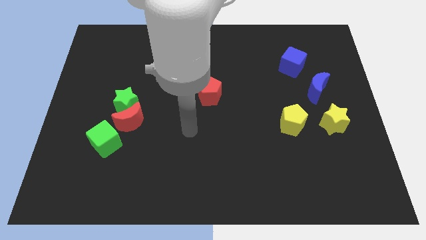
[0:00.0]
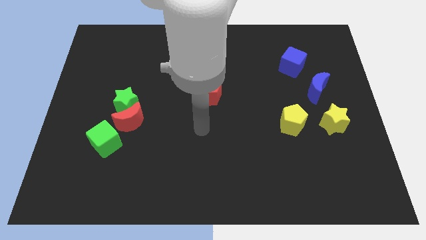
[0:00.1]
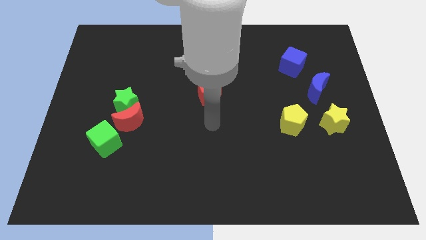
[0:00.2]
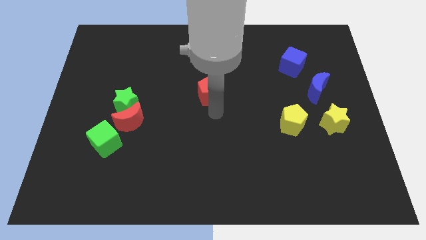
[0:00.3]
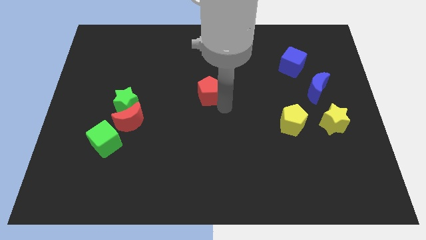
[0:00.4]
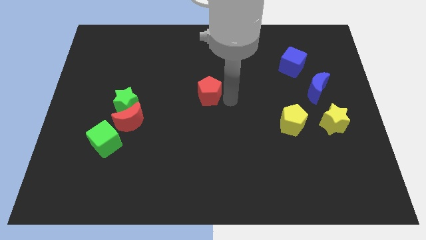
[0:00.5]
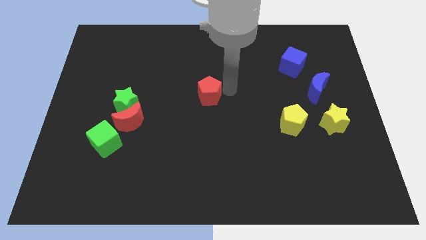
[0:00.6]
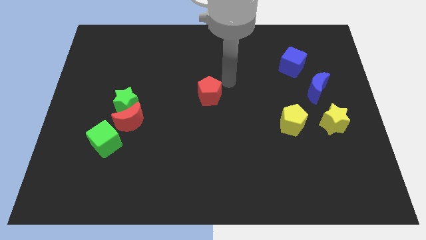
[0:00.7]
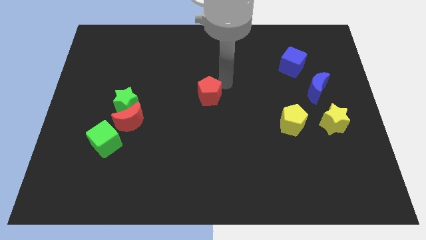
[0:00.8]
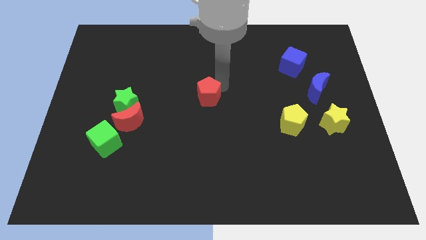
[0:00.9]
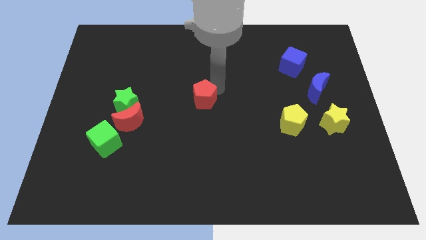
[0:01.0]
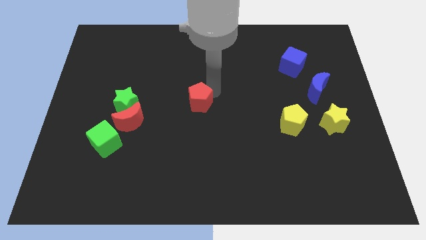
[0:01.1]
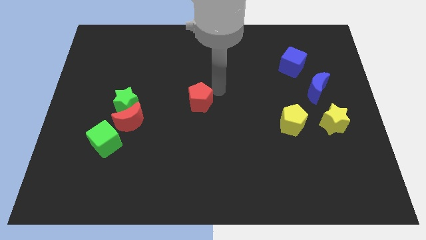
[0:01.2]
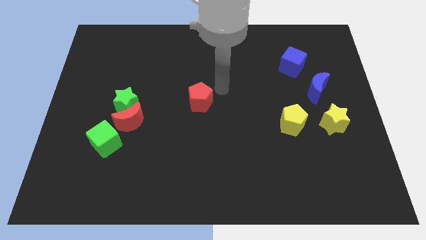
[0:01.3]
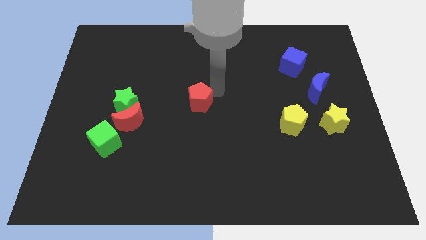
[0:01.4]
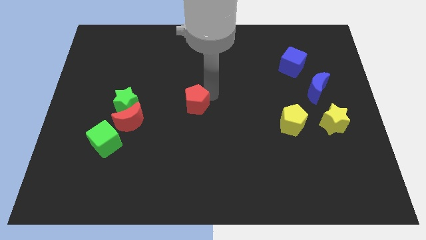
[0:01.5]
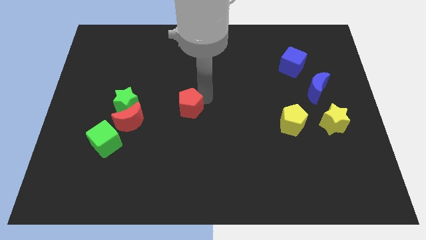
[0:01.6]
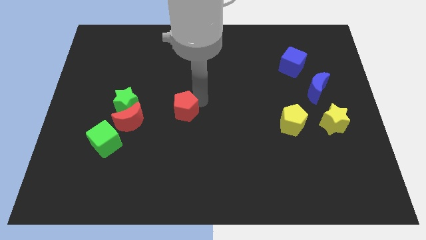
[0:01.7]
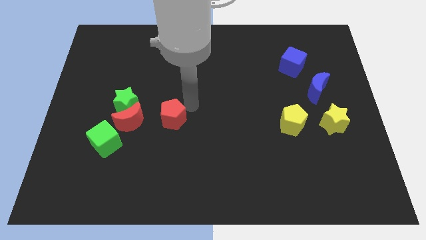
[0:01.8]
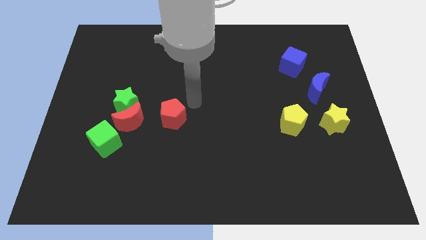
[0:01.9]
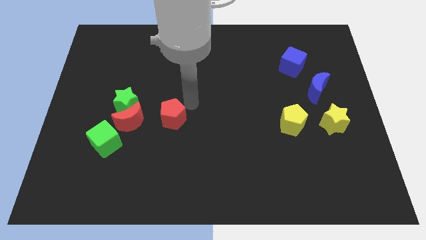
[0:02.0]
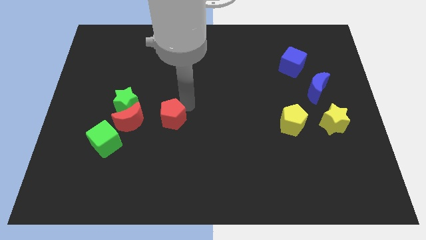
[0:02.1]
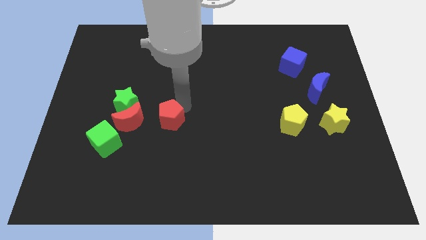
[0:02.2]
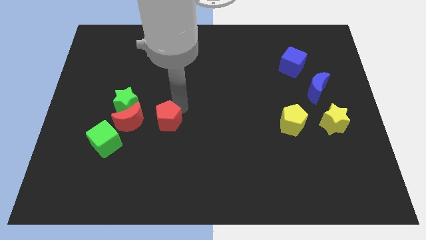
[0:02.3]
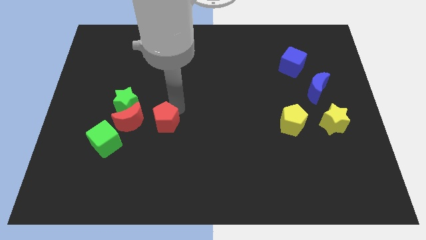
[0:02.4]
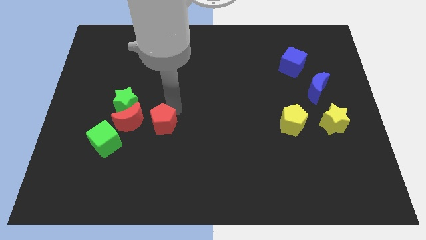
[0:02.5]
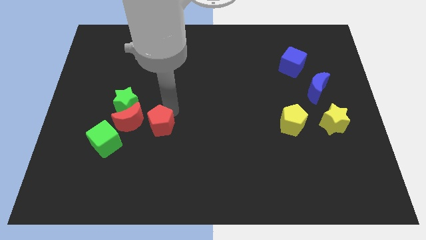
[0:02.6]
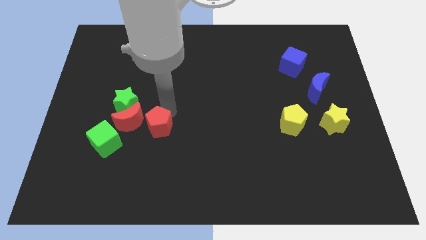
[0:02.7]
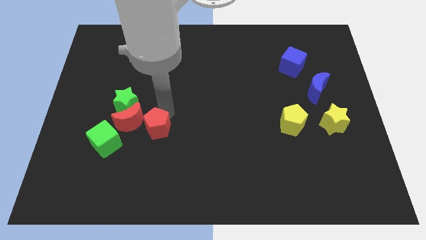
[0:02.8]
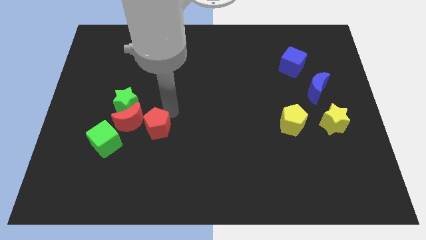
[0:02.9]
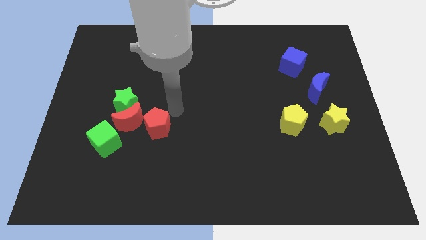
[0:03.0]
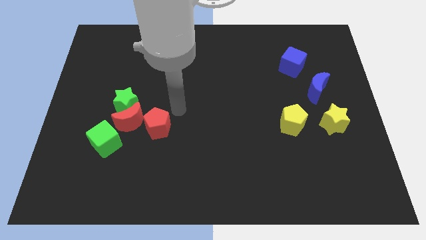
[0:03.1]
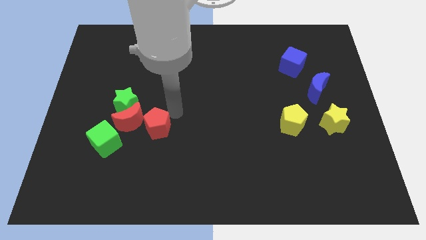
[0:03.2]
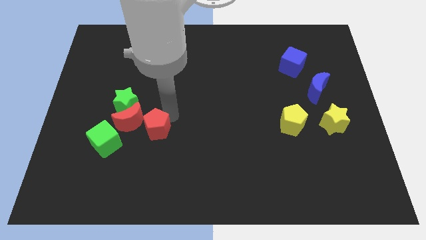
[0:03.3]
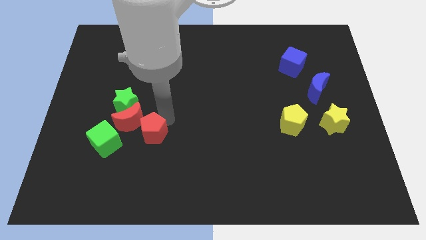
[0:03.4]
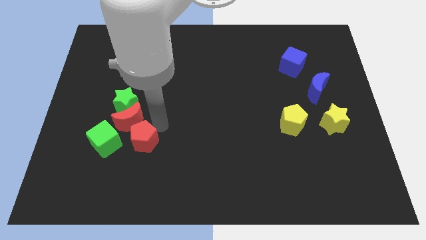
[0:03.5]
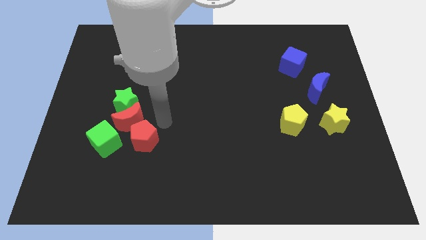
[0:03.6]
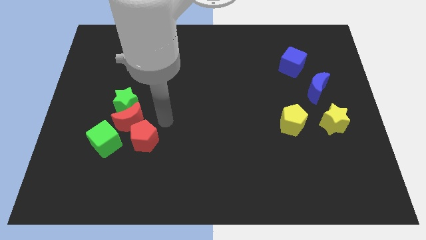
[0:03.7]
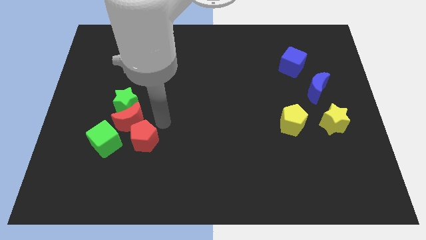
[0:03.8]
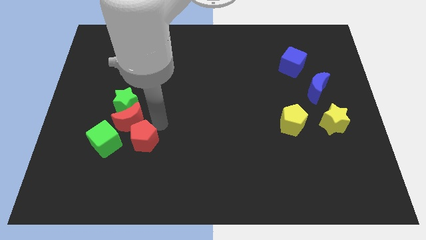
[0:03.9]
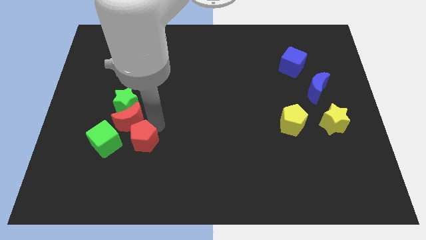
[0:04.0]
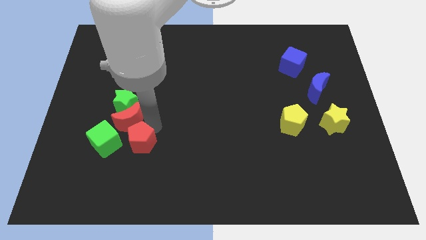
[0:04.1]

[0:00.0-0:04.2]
slide the red pentagon down and to the left diagonally

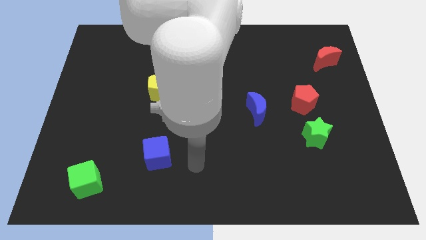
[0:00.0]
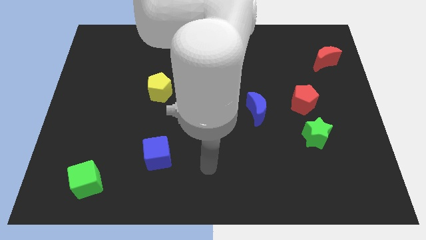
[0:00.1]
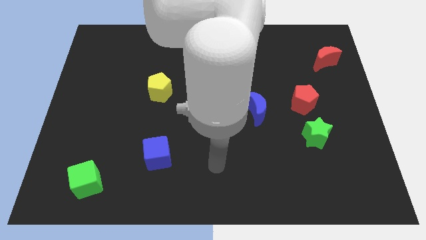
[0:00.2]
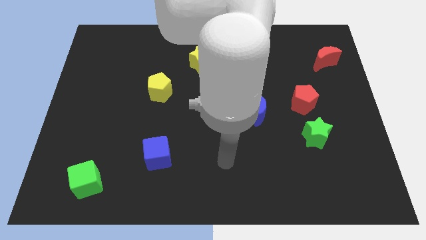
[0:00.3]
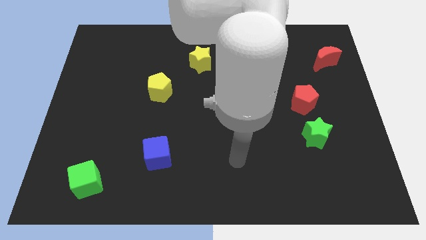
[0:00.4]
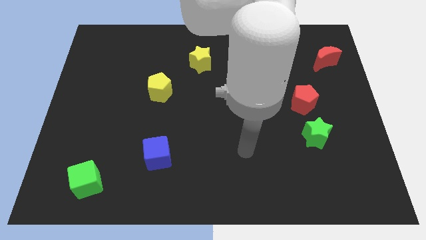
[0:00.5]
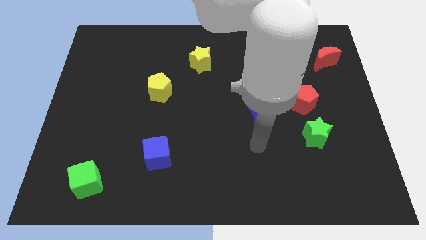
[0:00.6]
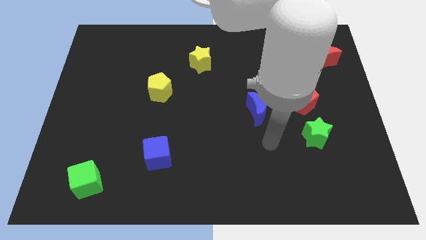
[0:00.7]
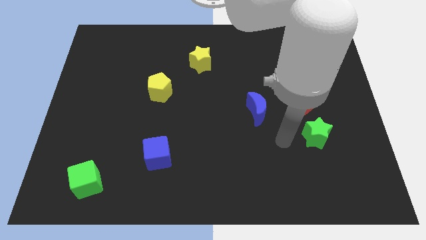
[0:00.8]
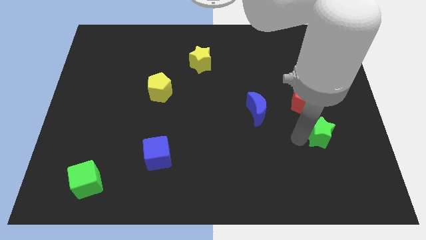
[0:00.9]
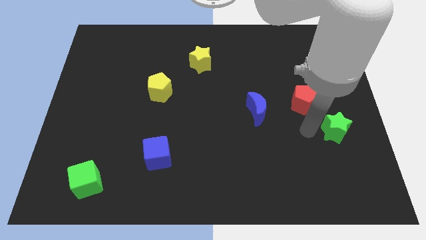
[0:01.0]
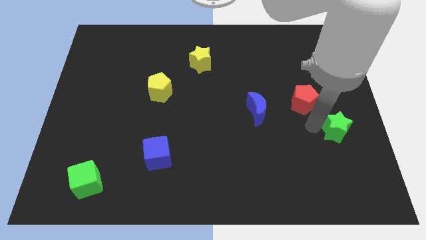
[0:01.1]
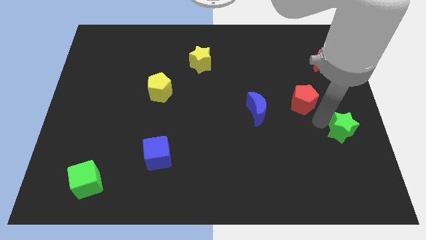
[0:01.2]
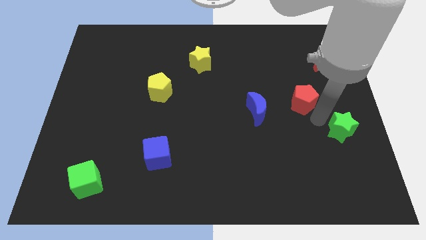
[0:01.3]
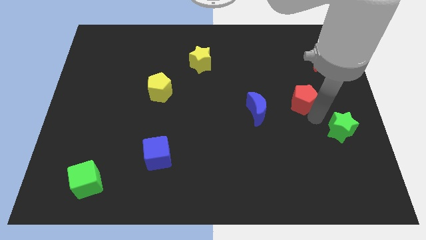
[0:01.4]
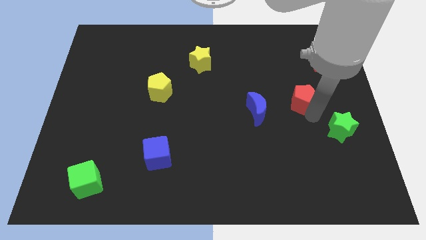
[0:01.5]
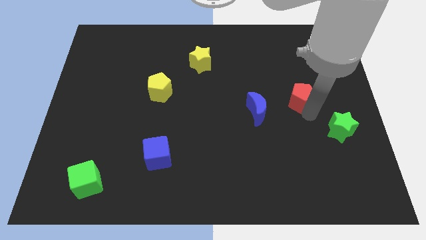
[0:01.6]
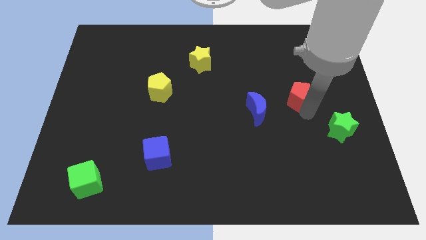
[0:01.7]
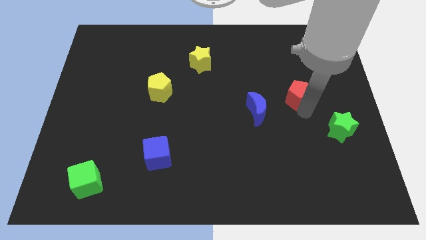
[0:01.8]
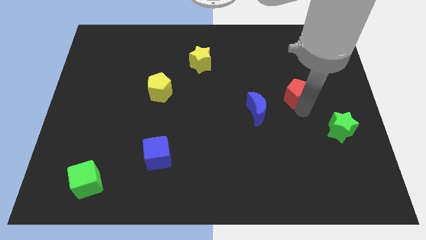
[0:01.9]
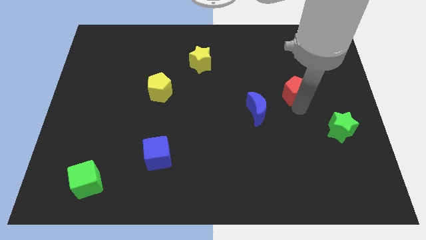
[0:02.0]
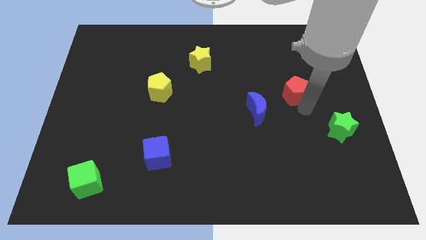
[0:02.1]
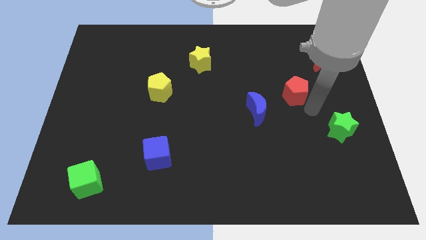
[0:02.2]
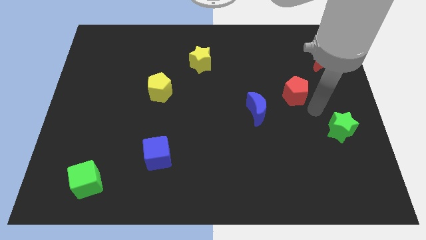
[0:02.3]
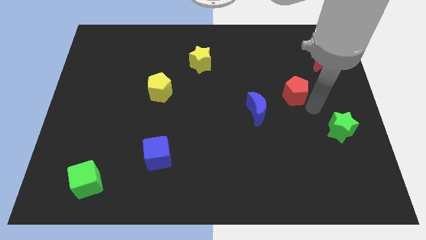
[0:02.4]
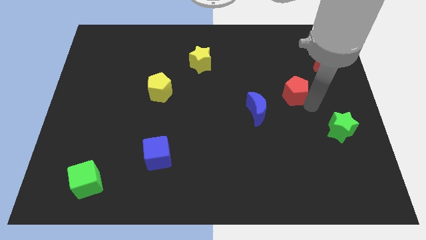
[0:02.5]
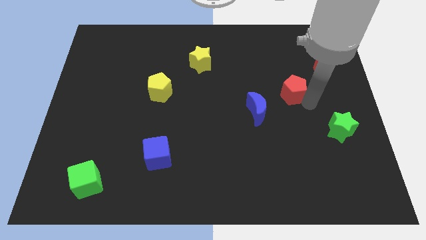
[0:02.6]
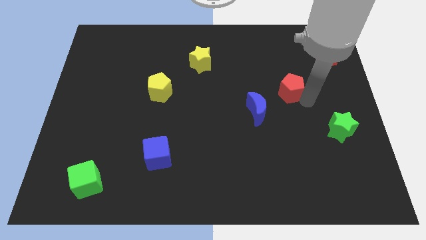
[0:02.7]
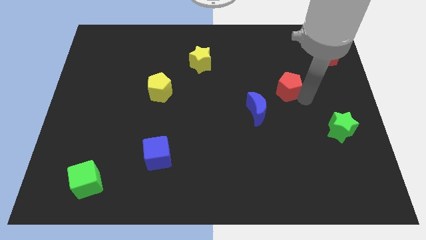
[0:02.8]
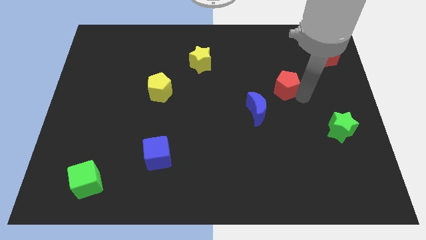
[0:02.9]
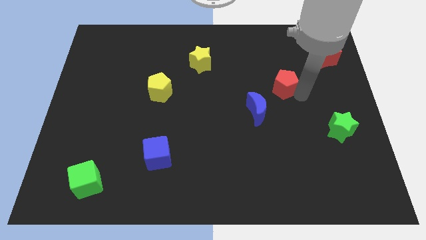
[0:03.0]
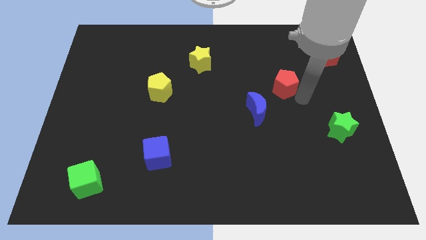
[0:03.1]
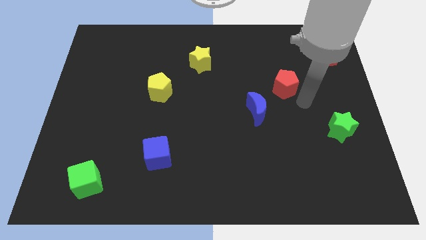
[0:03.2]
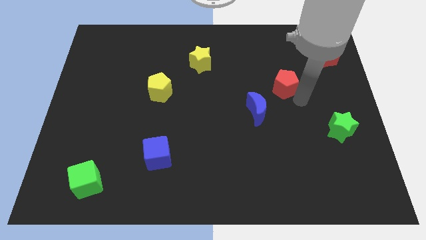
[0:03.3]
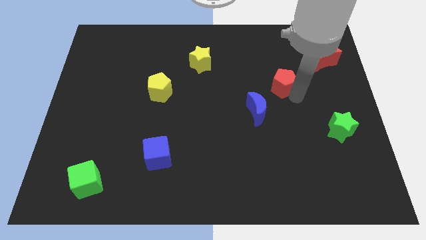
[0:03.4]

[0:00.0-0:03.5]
move the red pentagon upwards and then to the left slightly

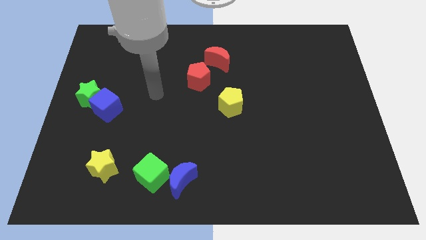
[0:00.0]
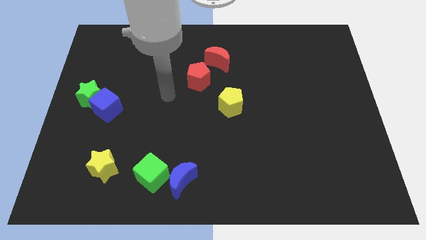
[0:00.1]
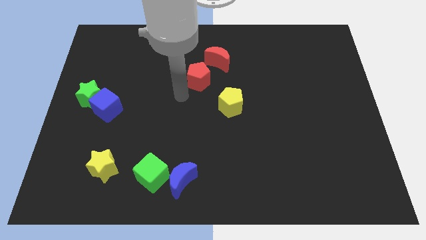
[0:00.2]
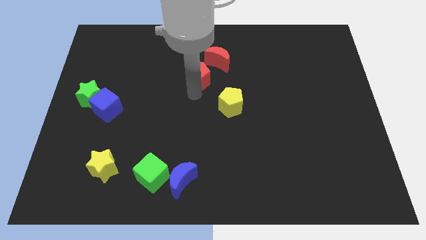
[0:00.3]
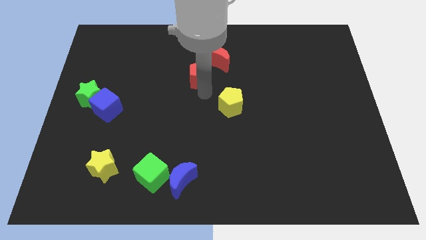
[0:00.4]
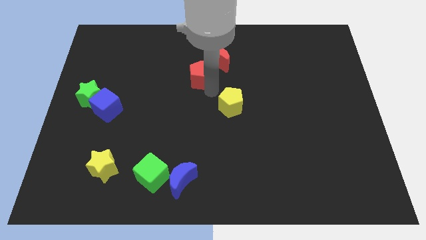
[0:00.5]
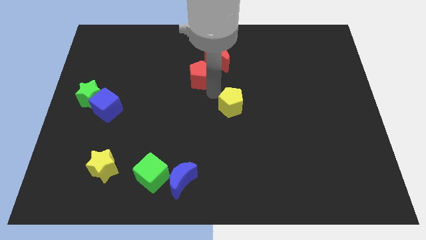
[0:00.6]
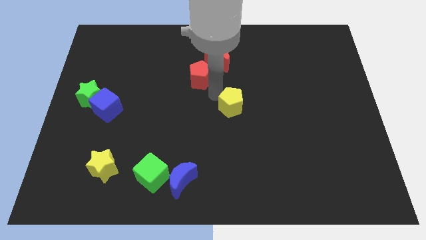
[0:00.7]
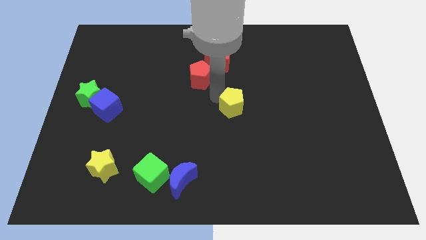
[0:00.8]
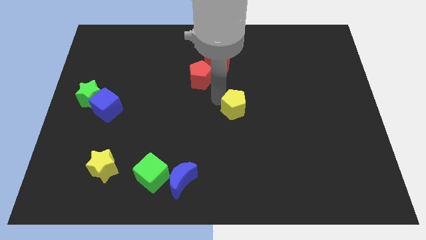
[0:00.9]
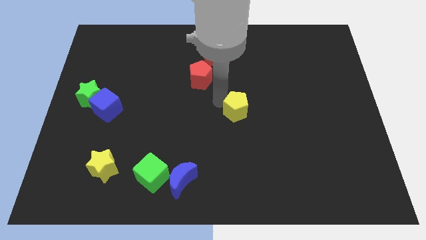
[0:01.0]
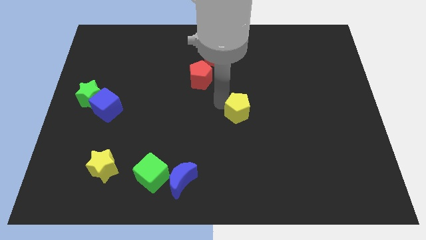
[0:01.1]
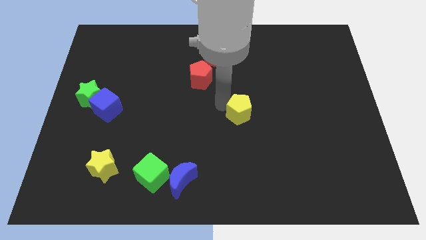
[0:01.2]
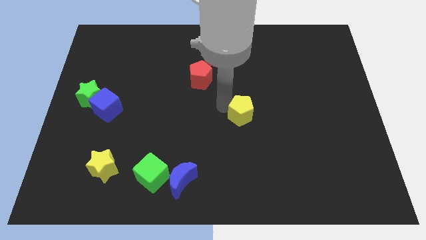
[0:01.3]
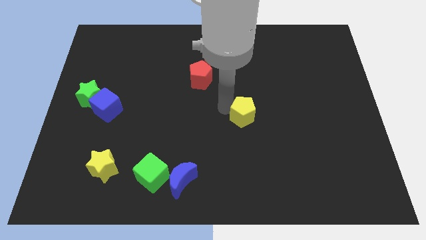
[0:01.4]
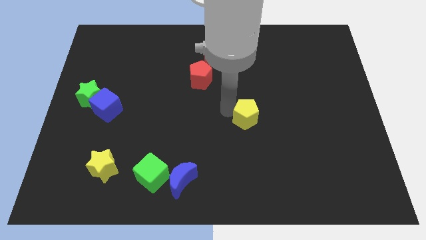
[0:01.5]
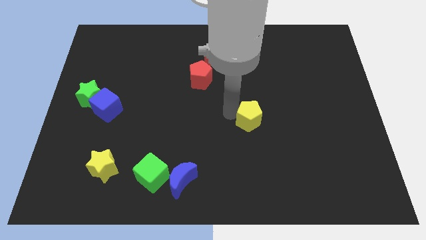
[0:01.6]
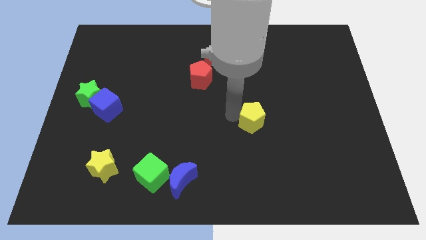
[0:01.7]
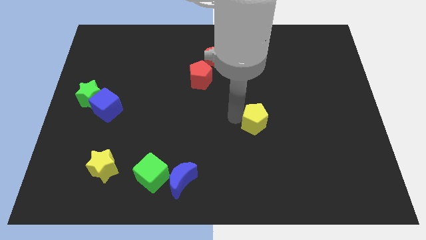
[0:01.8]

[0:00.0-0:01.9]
move the yellow pentagon diagonally down and right slightly
